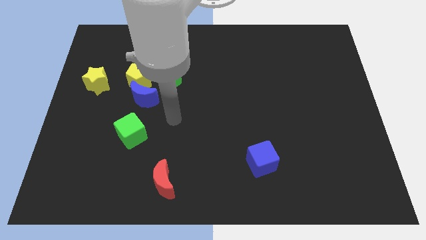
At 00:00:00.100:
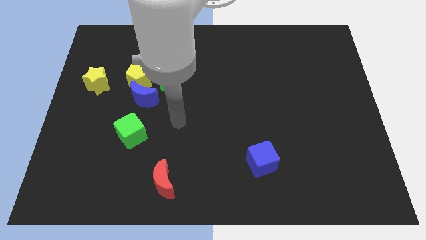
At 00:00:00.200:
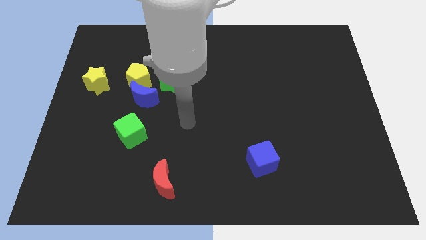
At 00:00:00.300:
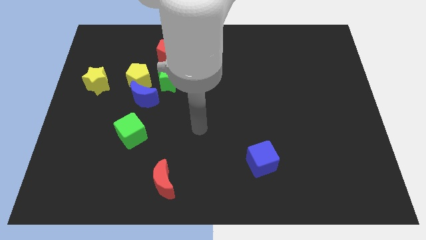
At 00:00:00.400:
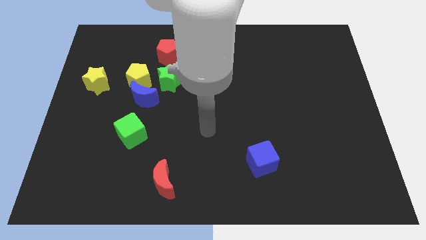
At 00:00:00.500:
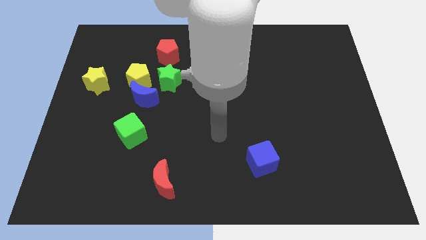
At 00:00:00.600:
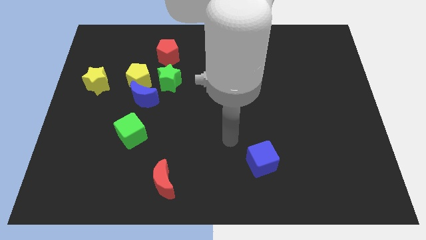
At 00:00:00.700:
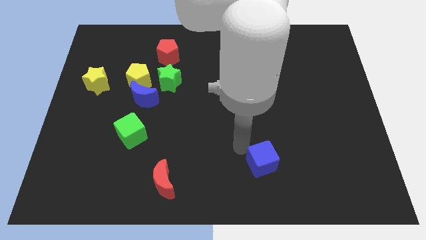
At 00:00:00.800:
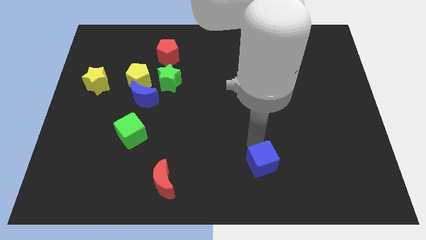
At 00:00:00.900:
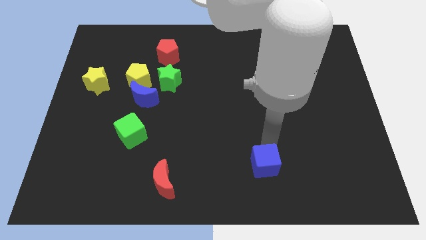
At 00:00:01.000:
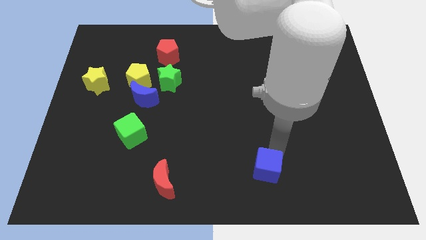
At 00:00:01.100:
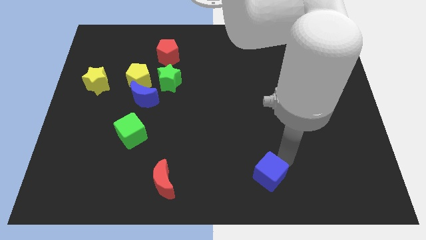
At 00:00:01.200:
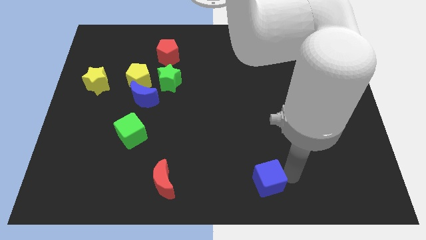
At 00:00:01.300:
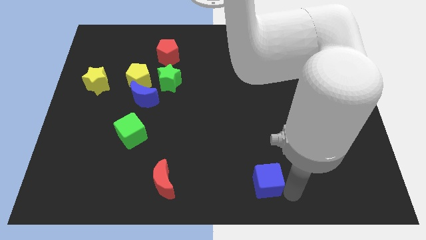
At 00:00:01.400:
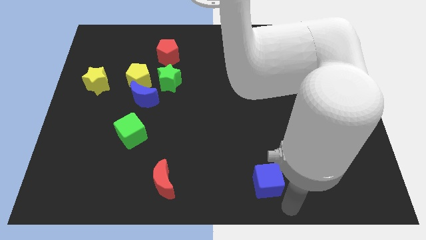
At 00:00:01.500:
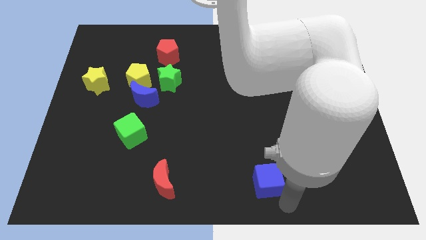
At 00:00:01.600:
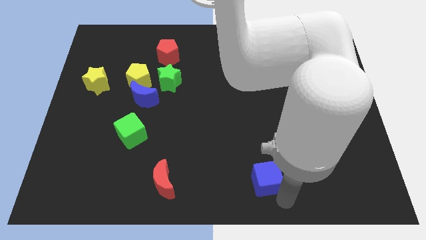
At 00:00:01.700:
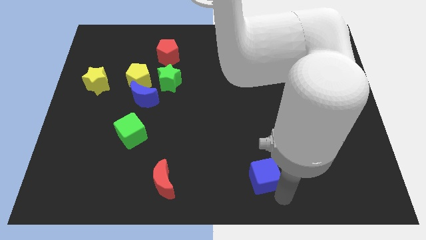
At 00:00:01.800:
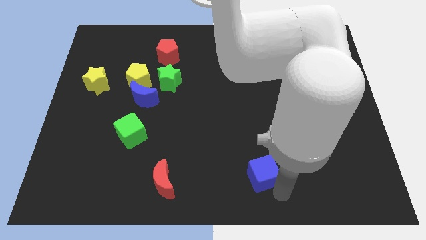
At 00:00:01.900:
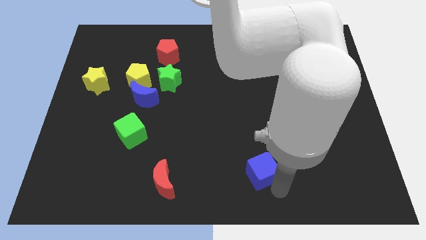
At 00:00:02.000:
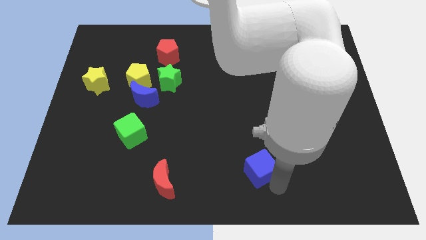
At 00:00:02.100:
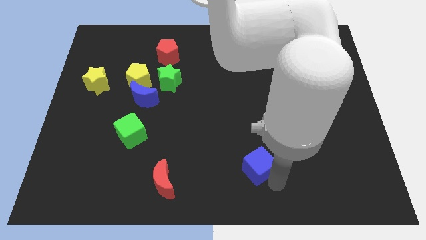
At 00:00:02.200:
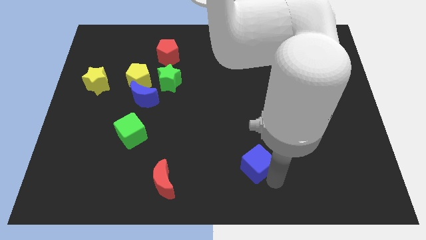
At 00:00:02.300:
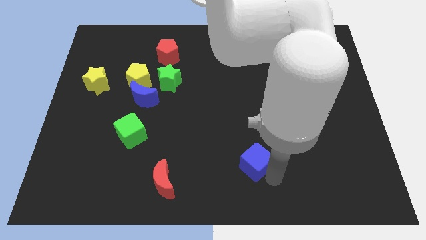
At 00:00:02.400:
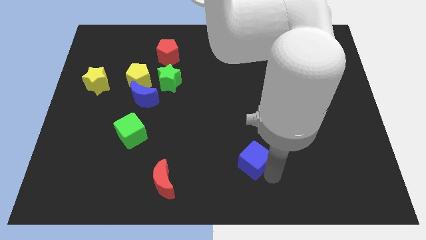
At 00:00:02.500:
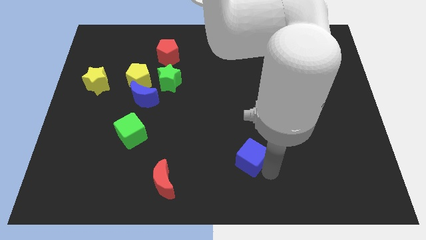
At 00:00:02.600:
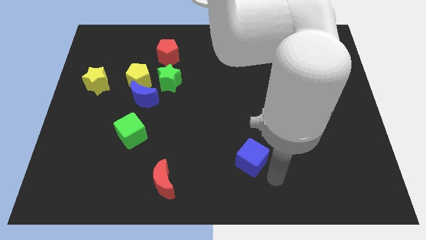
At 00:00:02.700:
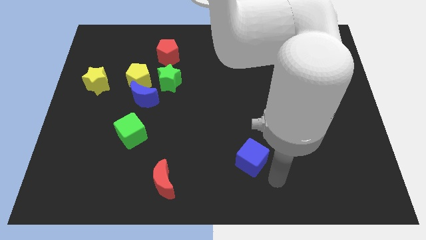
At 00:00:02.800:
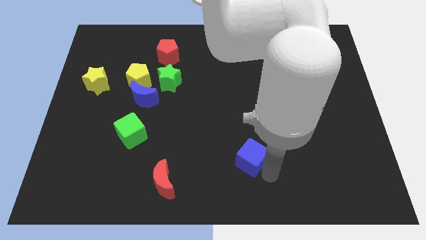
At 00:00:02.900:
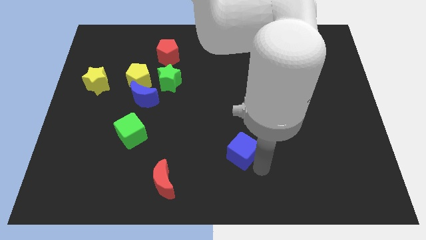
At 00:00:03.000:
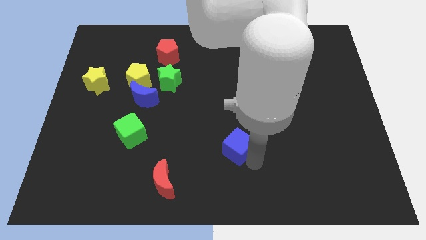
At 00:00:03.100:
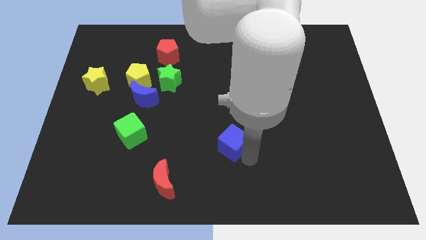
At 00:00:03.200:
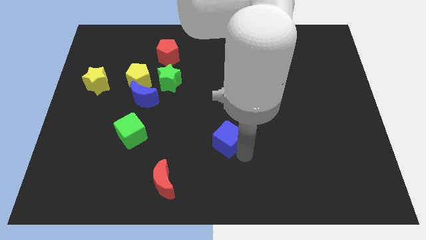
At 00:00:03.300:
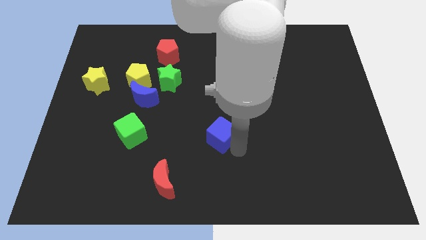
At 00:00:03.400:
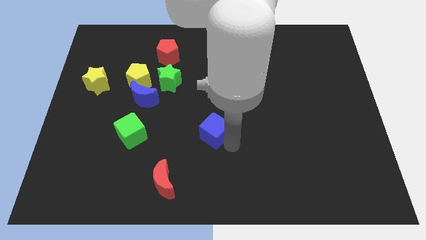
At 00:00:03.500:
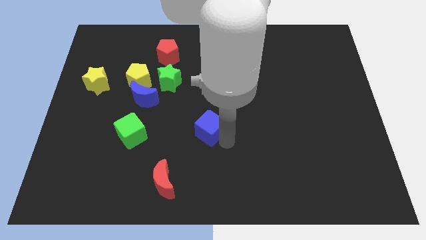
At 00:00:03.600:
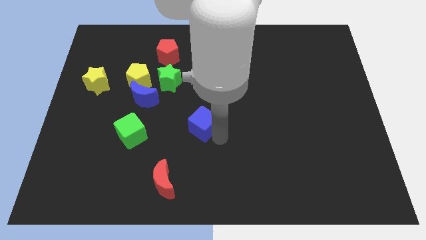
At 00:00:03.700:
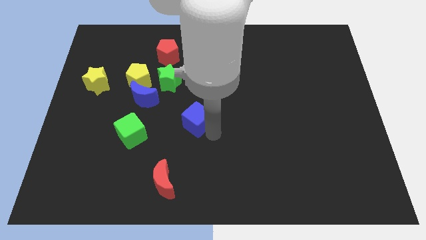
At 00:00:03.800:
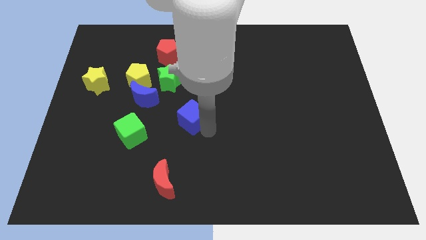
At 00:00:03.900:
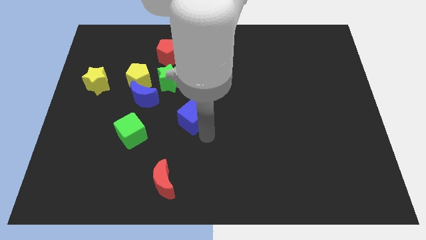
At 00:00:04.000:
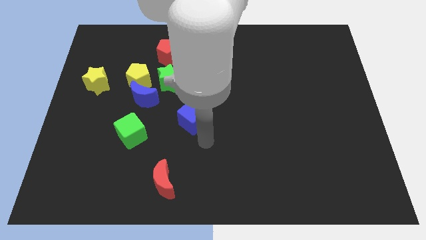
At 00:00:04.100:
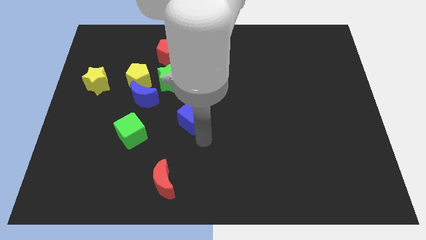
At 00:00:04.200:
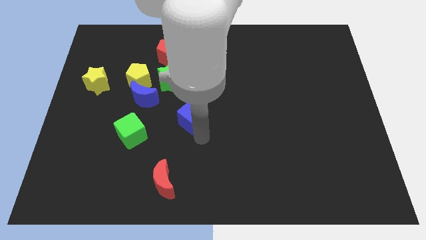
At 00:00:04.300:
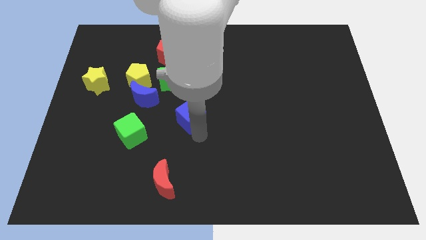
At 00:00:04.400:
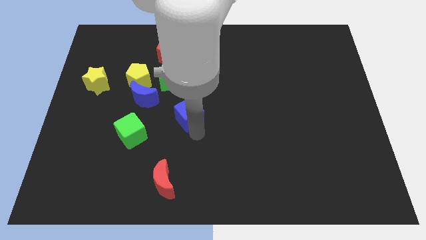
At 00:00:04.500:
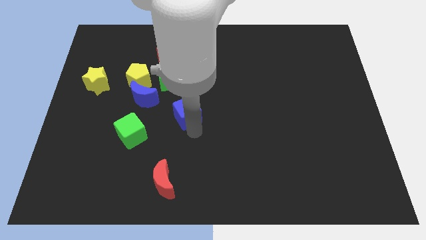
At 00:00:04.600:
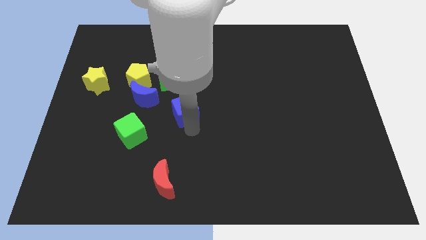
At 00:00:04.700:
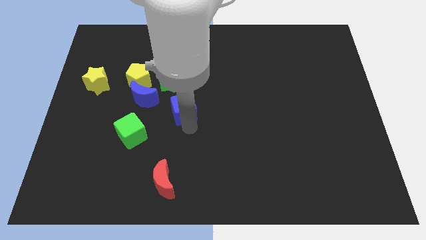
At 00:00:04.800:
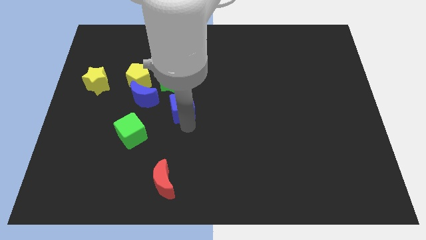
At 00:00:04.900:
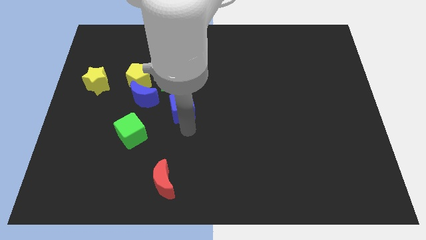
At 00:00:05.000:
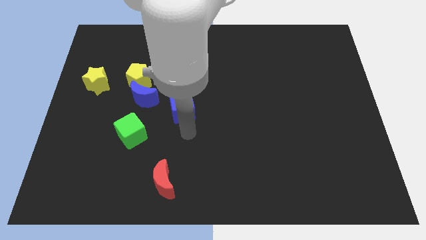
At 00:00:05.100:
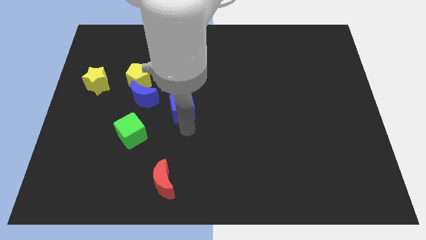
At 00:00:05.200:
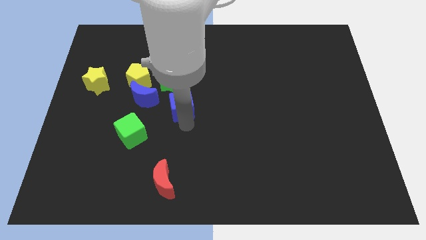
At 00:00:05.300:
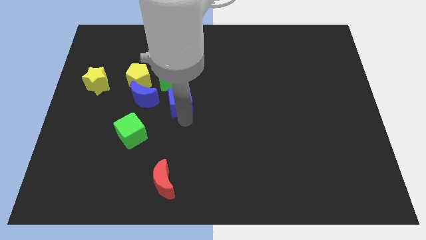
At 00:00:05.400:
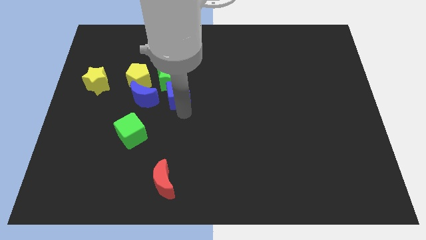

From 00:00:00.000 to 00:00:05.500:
put the blue cube next to the green star

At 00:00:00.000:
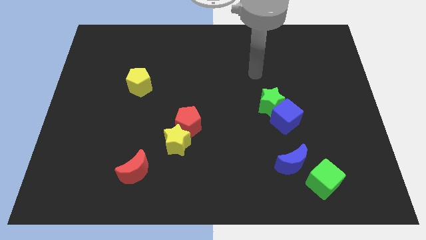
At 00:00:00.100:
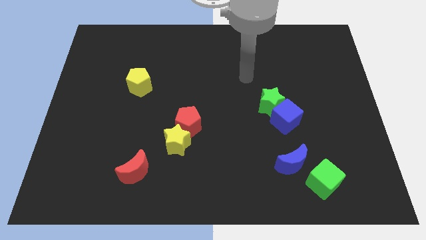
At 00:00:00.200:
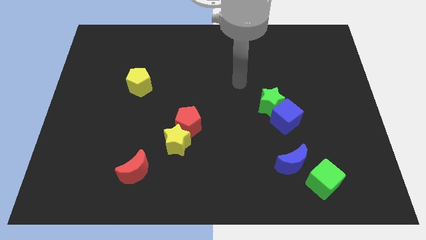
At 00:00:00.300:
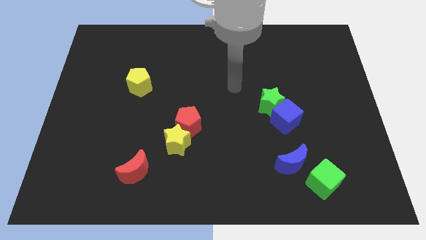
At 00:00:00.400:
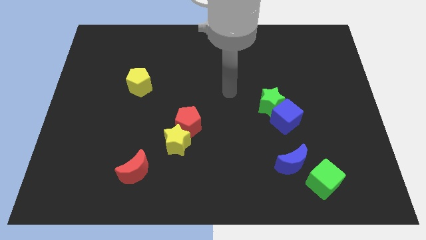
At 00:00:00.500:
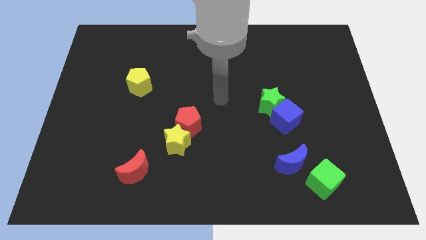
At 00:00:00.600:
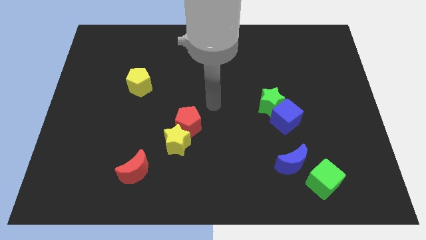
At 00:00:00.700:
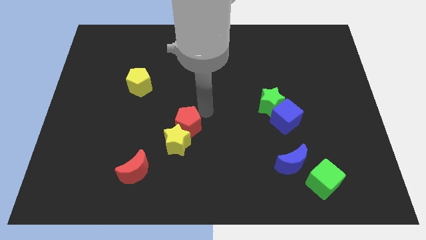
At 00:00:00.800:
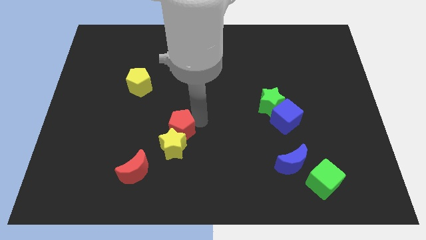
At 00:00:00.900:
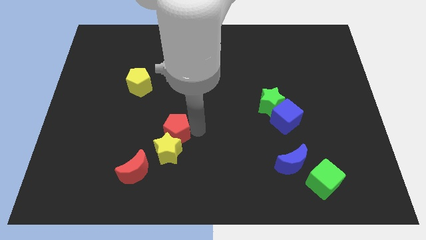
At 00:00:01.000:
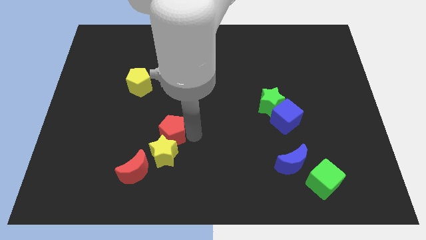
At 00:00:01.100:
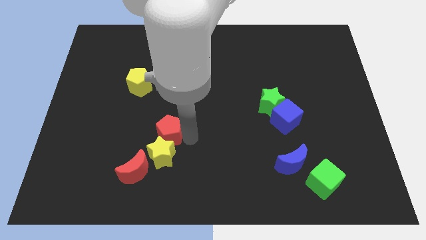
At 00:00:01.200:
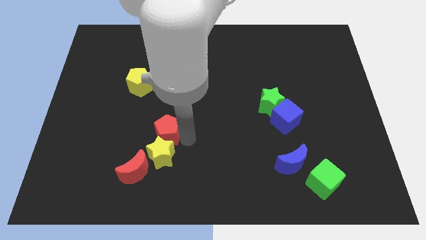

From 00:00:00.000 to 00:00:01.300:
slide the yellow star towards the red moon
